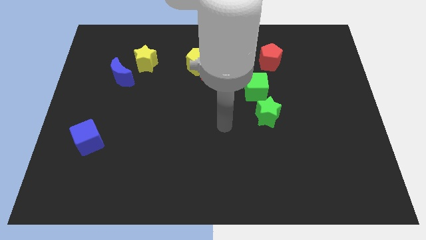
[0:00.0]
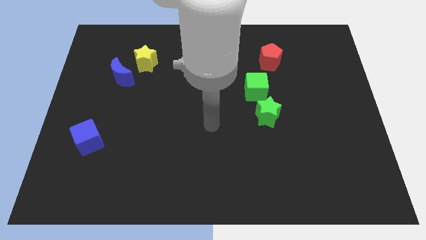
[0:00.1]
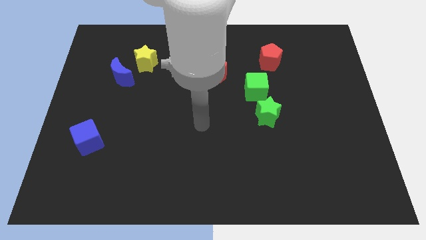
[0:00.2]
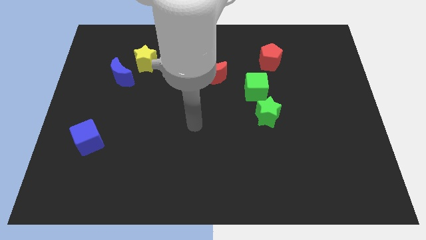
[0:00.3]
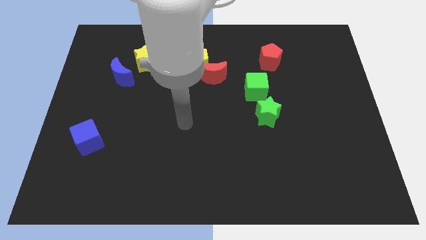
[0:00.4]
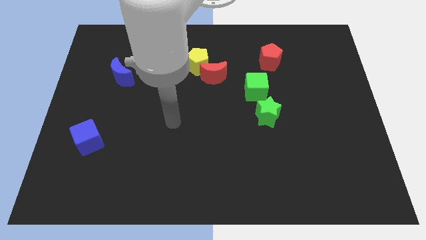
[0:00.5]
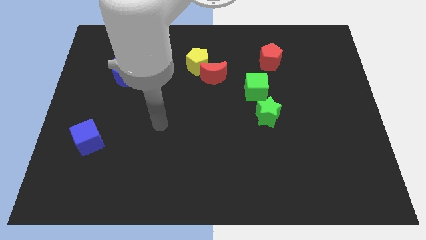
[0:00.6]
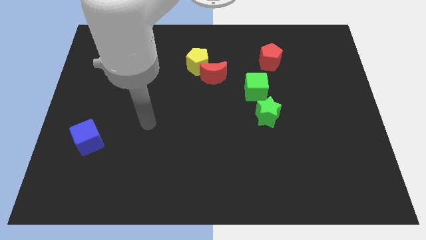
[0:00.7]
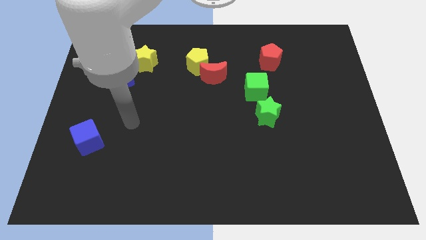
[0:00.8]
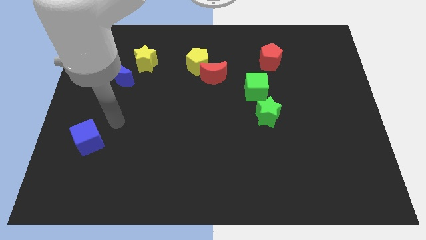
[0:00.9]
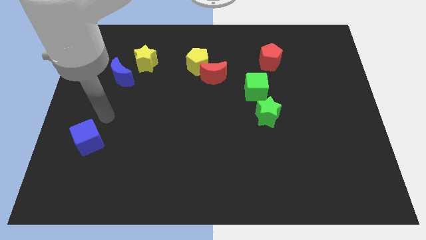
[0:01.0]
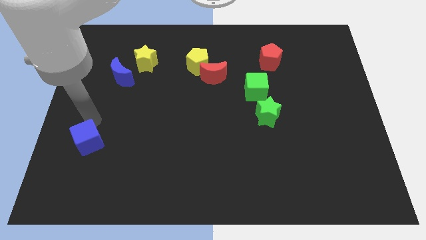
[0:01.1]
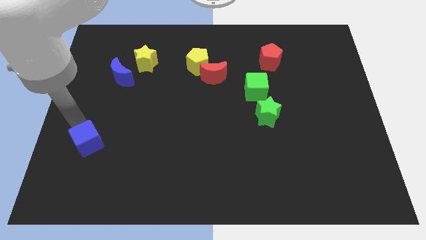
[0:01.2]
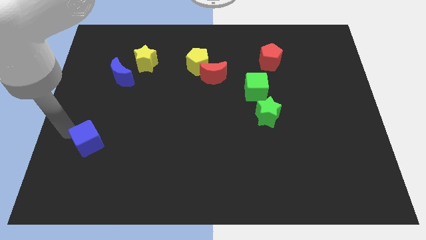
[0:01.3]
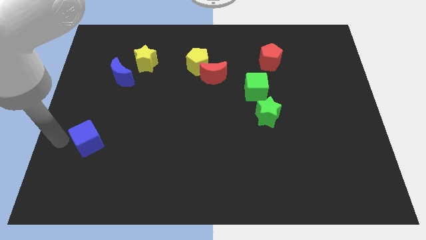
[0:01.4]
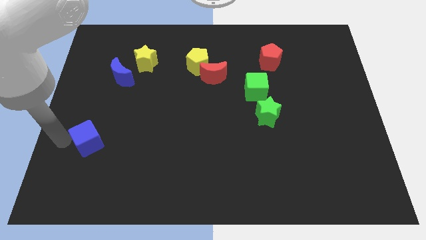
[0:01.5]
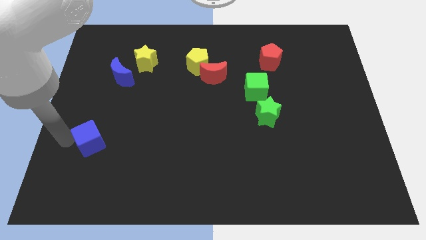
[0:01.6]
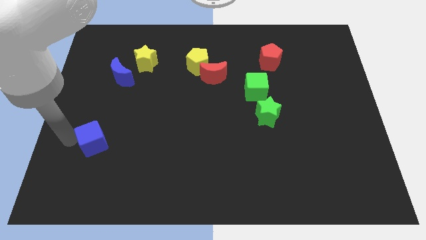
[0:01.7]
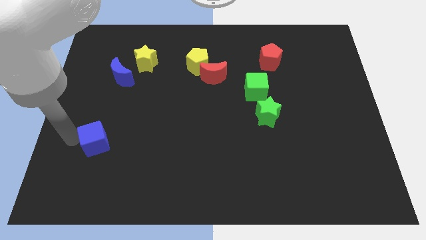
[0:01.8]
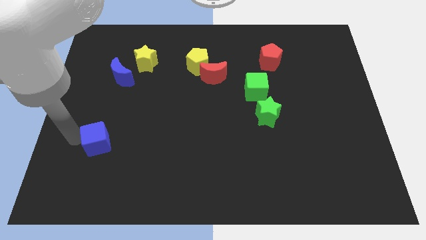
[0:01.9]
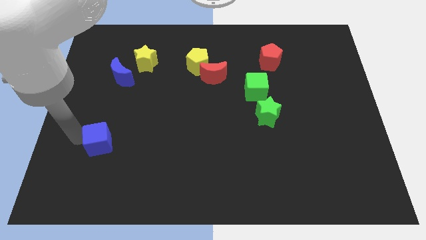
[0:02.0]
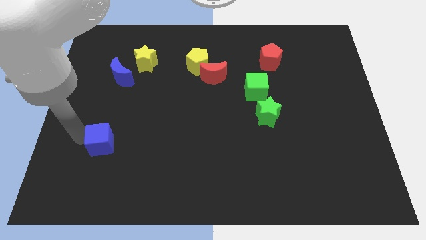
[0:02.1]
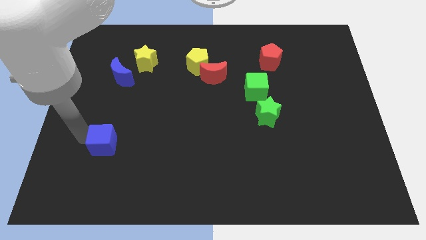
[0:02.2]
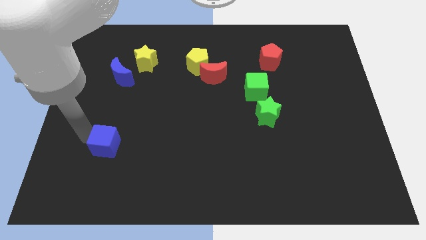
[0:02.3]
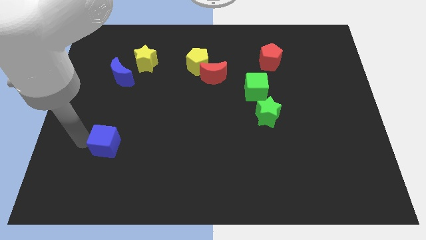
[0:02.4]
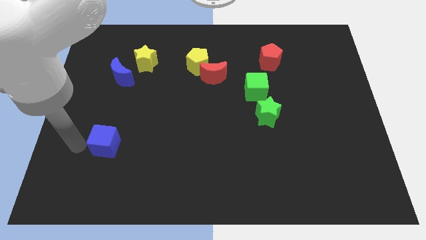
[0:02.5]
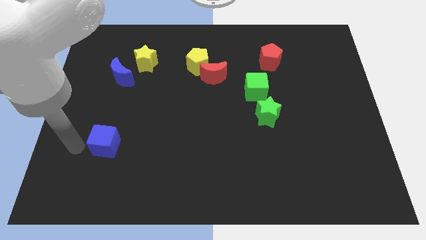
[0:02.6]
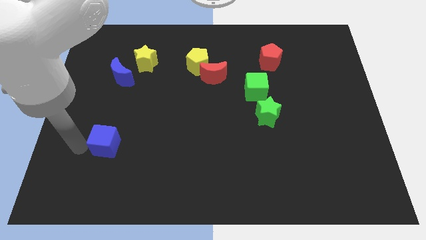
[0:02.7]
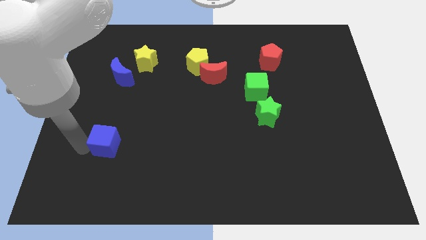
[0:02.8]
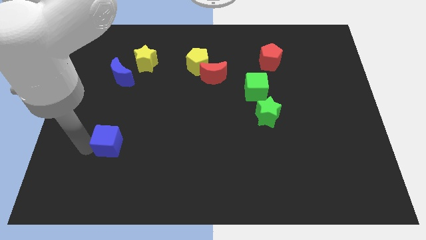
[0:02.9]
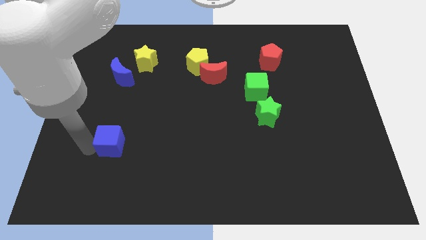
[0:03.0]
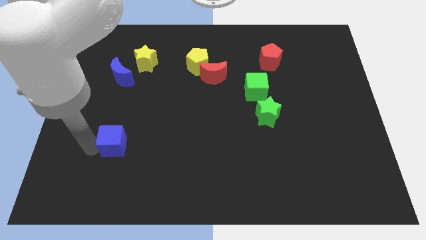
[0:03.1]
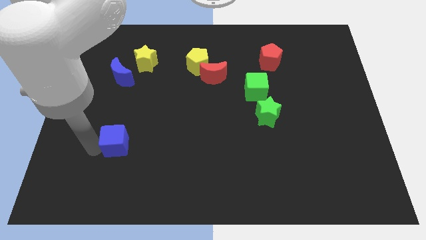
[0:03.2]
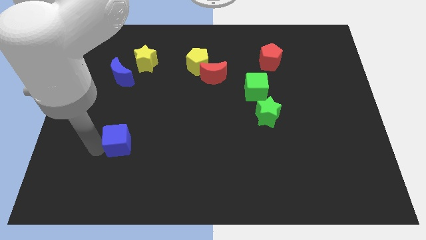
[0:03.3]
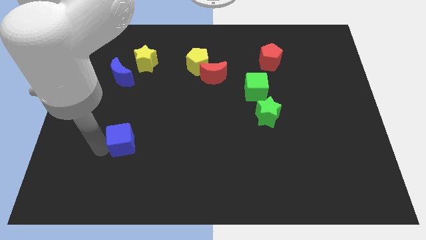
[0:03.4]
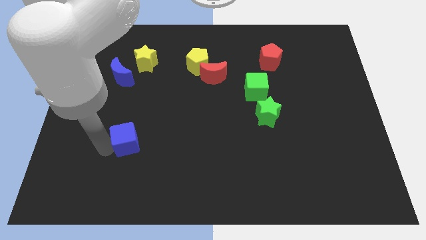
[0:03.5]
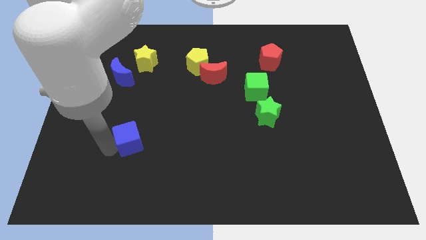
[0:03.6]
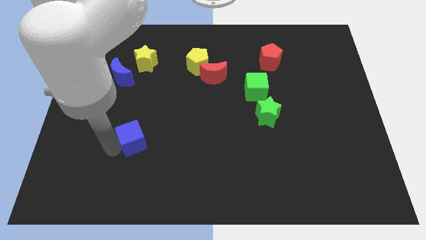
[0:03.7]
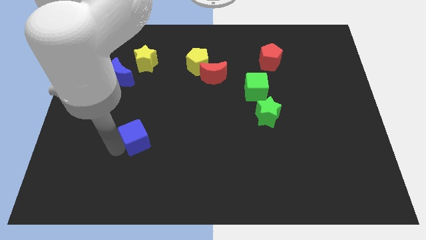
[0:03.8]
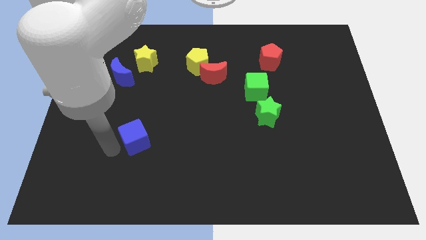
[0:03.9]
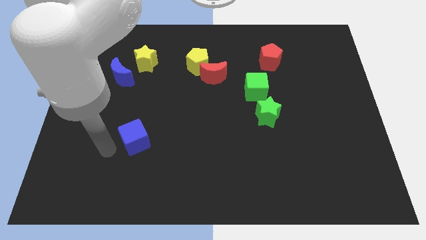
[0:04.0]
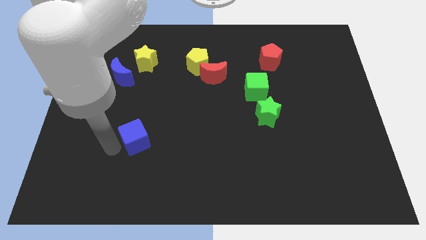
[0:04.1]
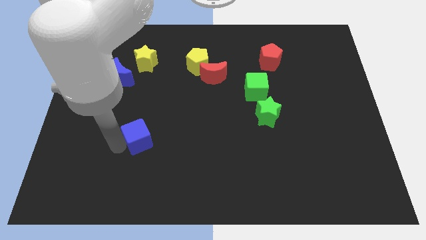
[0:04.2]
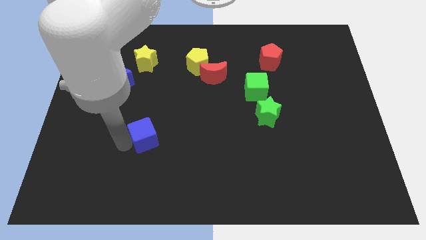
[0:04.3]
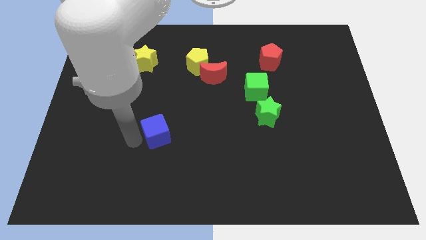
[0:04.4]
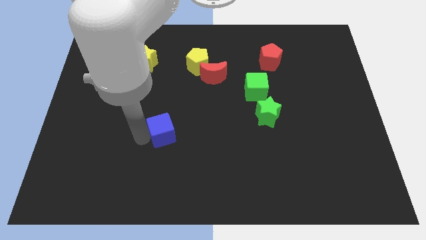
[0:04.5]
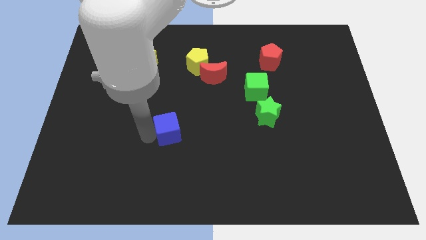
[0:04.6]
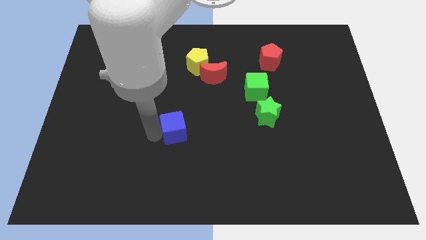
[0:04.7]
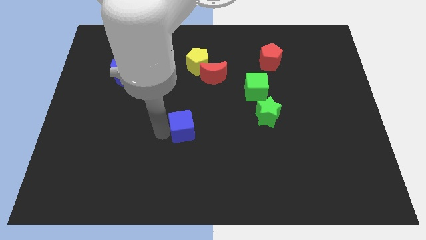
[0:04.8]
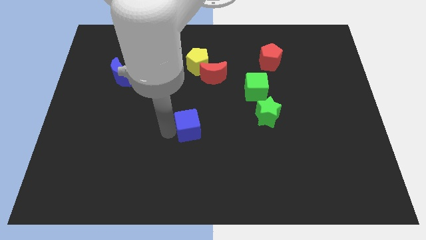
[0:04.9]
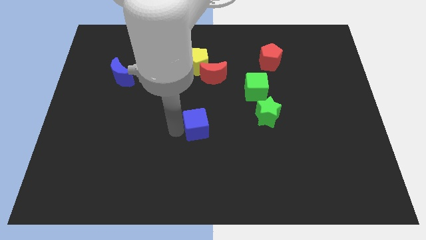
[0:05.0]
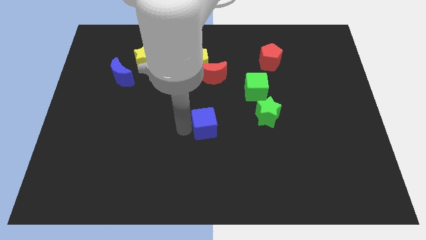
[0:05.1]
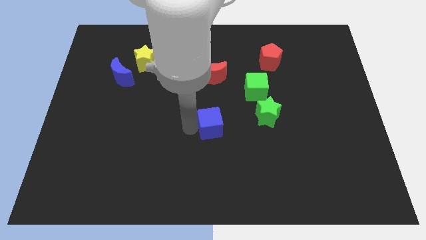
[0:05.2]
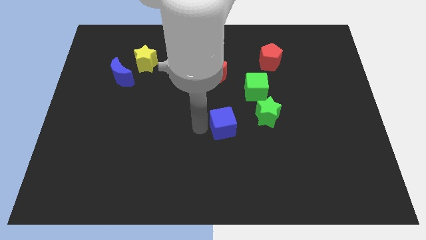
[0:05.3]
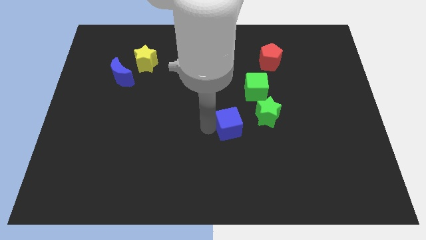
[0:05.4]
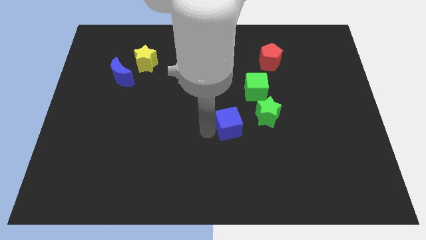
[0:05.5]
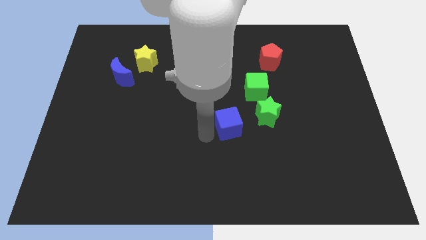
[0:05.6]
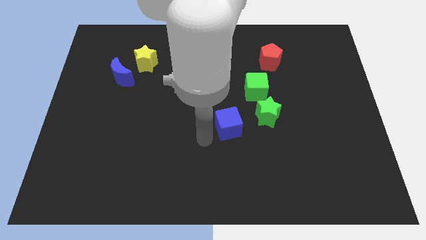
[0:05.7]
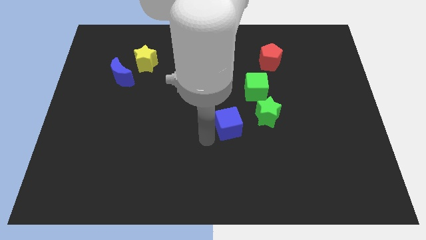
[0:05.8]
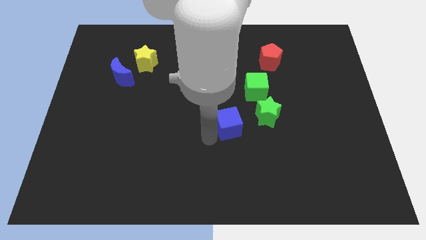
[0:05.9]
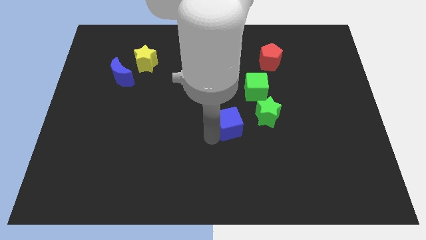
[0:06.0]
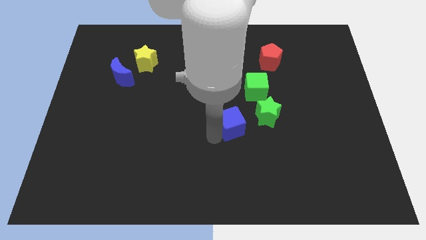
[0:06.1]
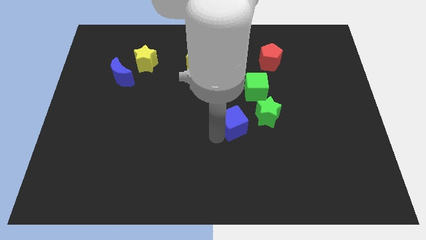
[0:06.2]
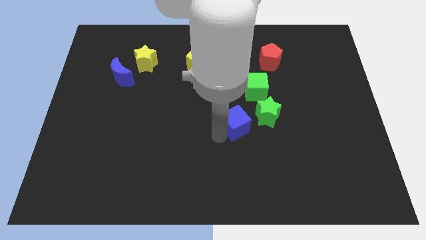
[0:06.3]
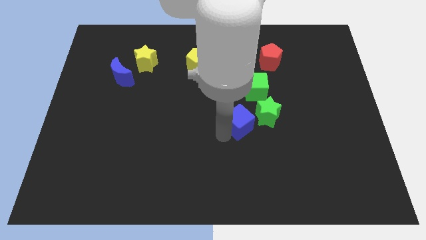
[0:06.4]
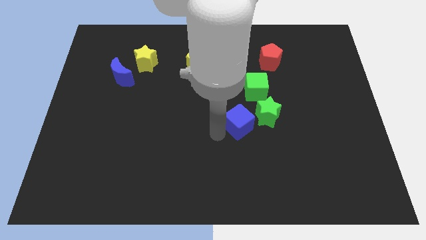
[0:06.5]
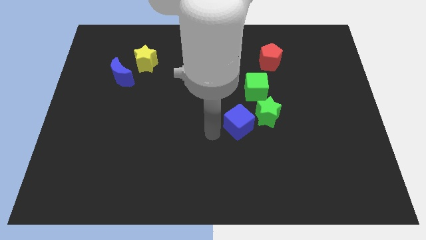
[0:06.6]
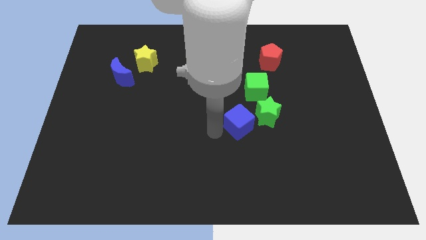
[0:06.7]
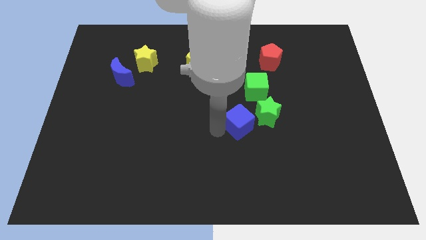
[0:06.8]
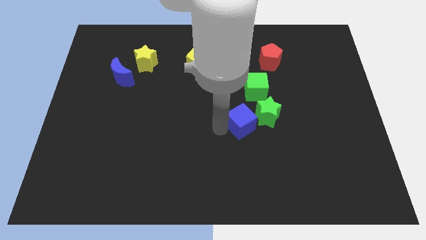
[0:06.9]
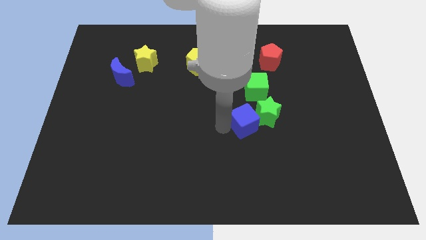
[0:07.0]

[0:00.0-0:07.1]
push the blue cube to the green star

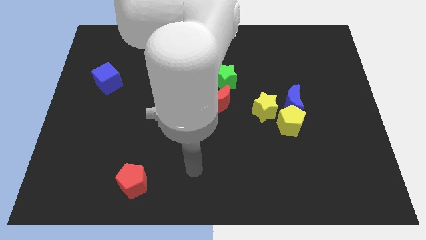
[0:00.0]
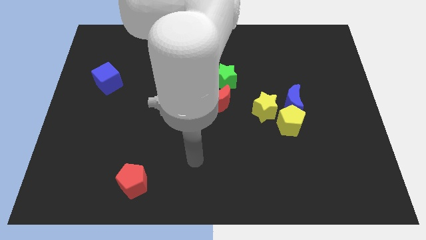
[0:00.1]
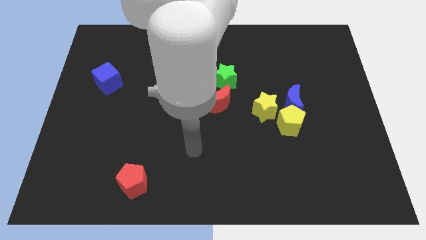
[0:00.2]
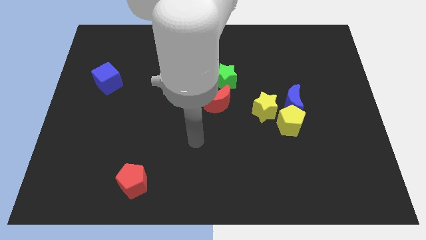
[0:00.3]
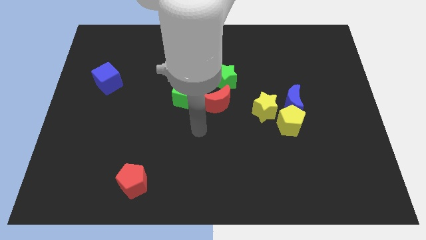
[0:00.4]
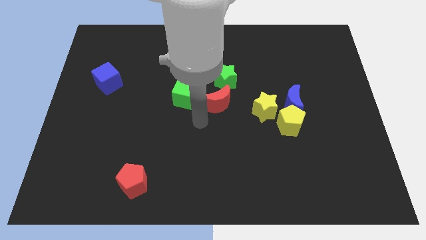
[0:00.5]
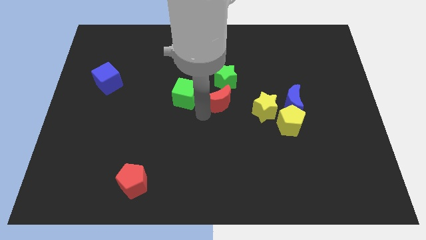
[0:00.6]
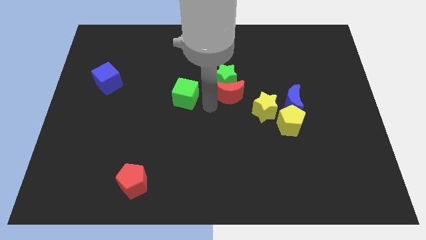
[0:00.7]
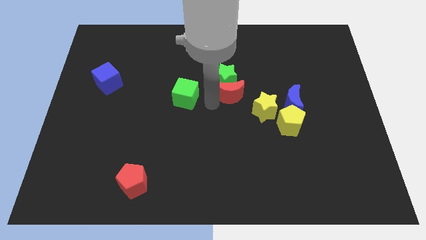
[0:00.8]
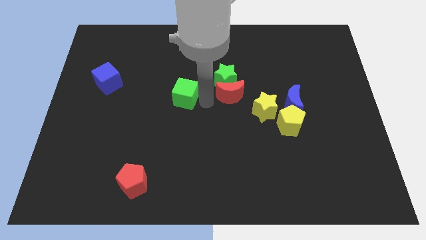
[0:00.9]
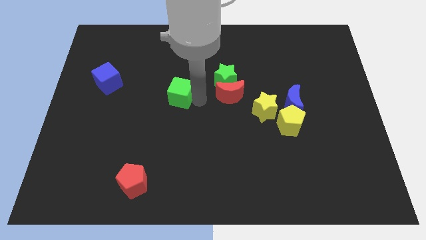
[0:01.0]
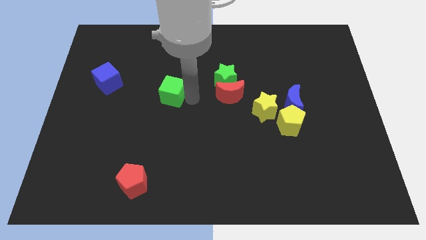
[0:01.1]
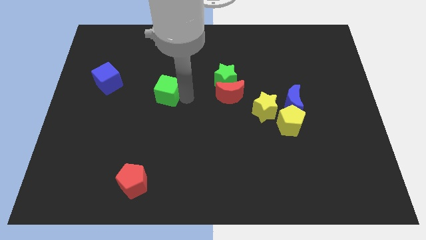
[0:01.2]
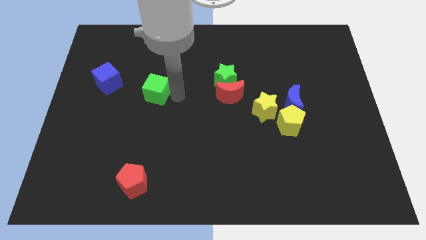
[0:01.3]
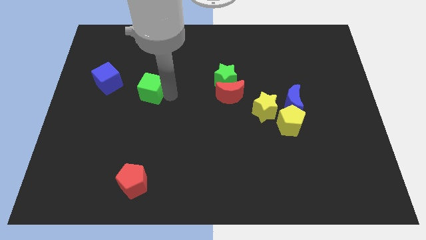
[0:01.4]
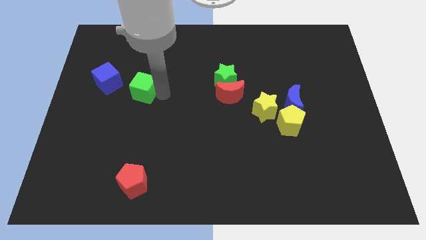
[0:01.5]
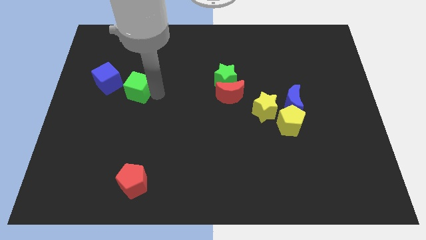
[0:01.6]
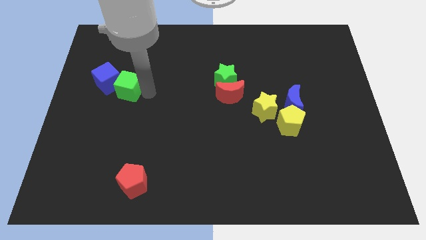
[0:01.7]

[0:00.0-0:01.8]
push the green cube towards the blue cube
